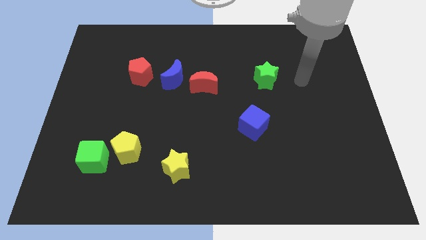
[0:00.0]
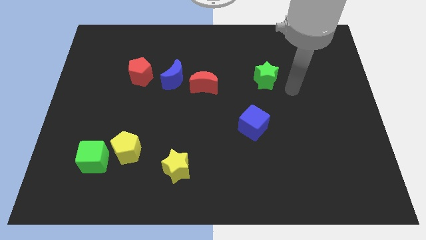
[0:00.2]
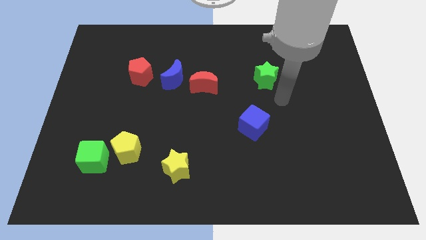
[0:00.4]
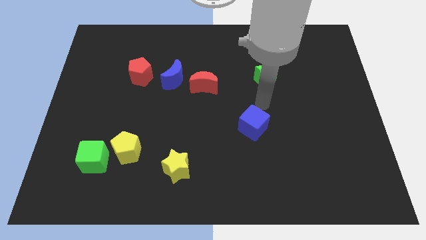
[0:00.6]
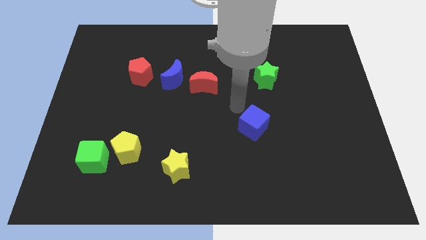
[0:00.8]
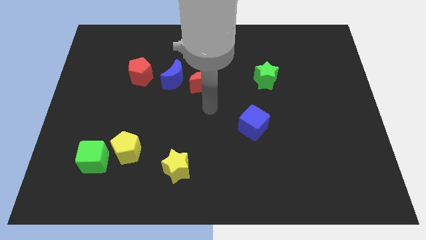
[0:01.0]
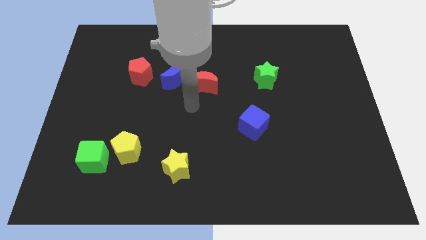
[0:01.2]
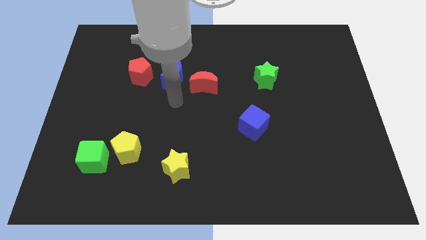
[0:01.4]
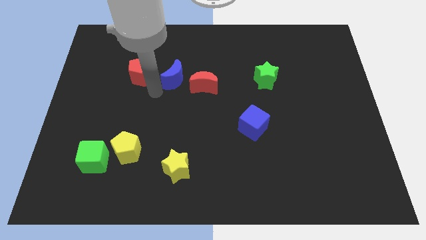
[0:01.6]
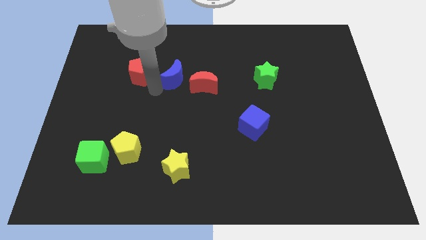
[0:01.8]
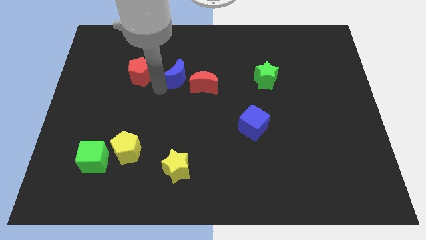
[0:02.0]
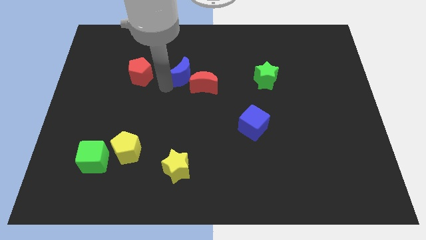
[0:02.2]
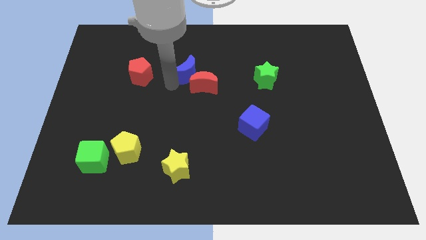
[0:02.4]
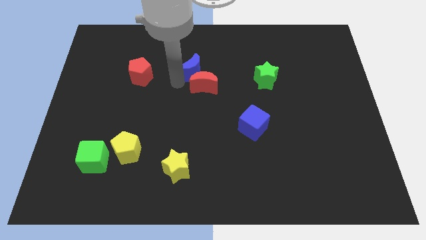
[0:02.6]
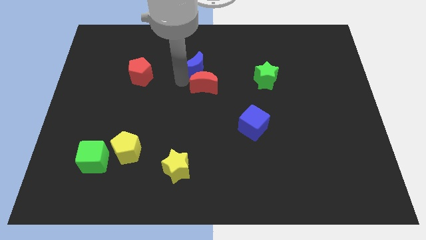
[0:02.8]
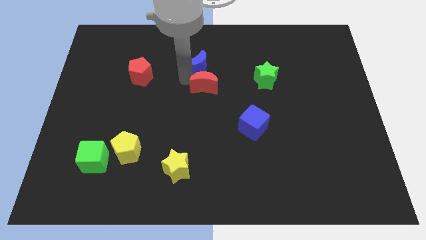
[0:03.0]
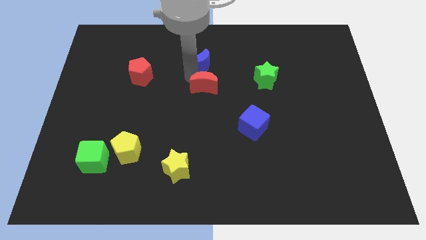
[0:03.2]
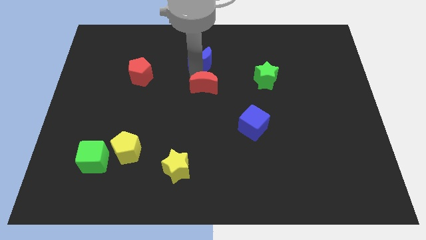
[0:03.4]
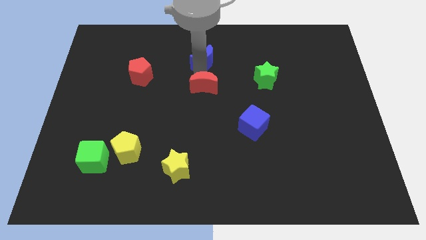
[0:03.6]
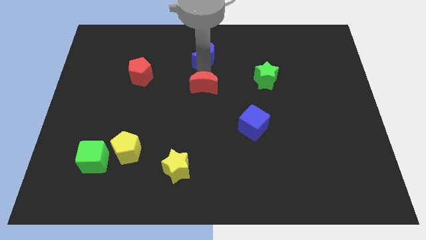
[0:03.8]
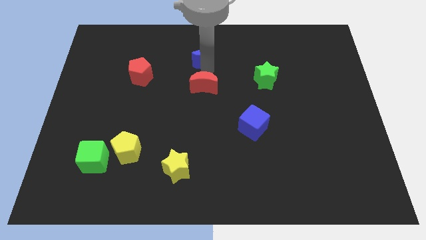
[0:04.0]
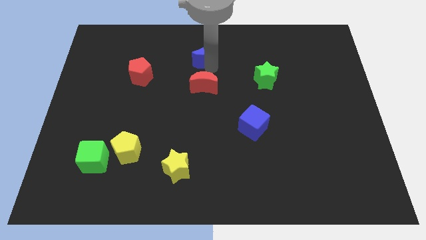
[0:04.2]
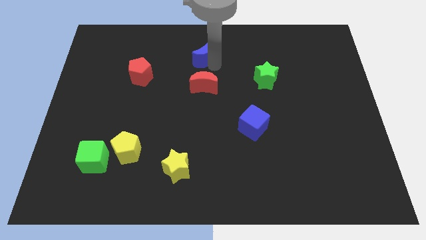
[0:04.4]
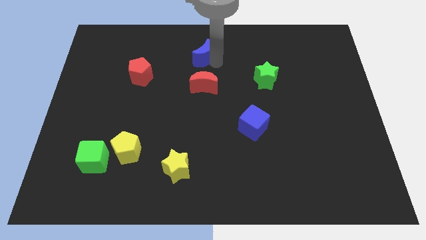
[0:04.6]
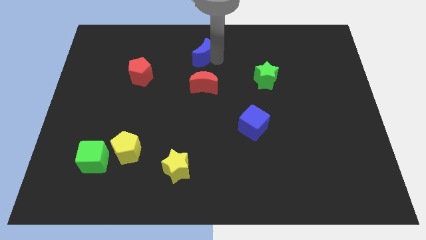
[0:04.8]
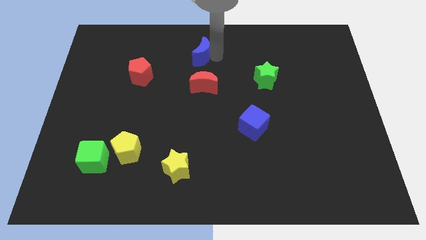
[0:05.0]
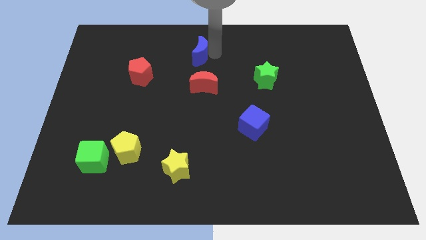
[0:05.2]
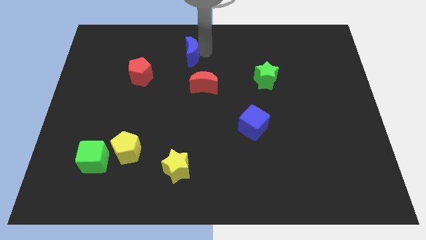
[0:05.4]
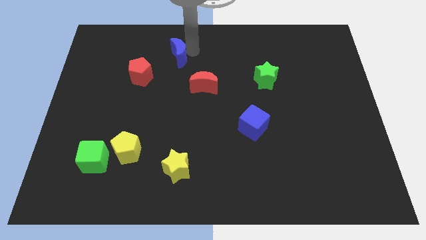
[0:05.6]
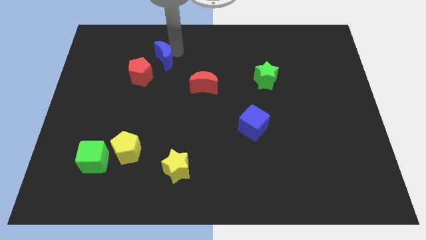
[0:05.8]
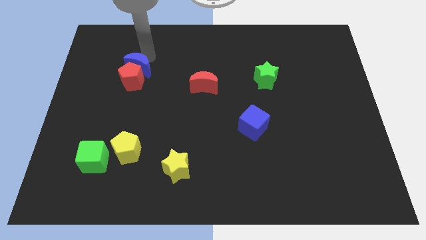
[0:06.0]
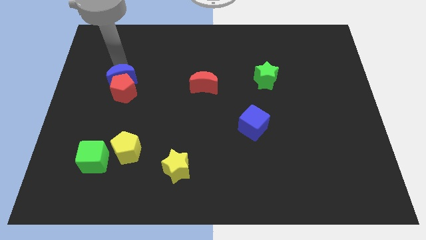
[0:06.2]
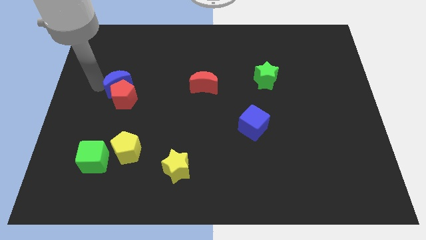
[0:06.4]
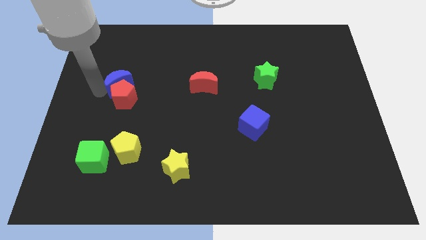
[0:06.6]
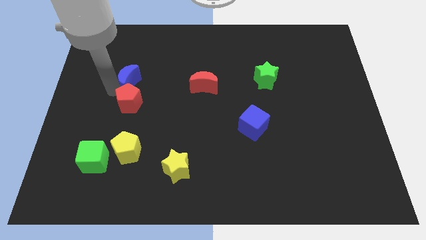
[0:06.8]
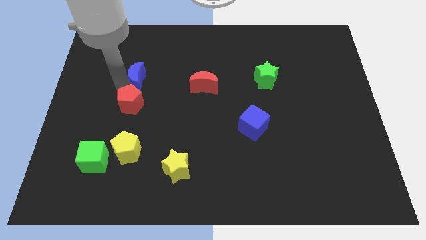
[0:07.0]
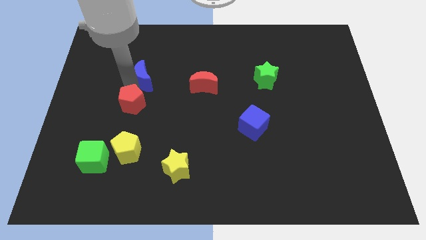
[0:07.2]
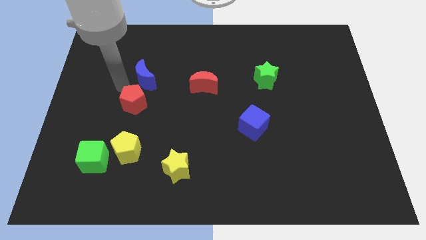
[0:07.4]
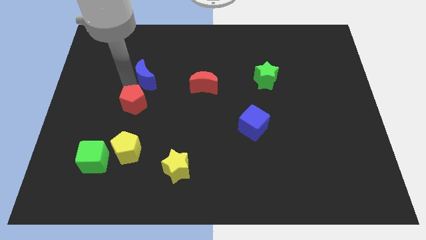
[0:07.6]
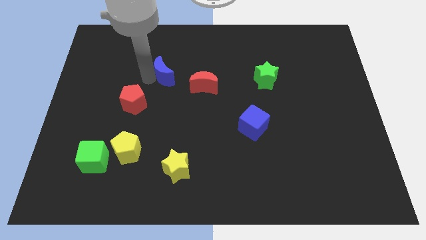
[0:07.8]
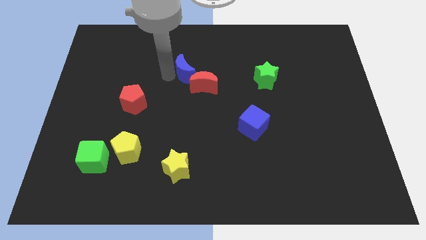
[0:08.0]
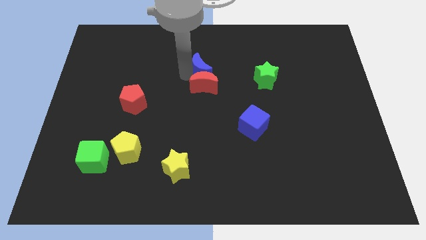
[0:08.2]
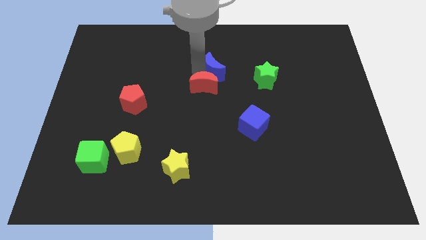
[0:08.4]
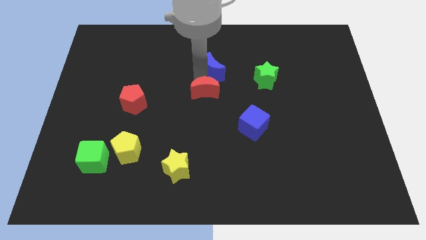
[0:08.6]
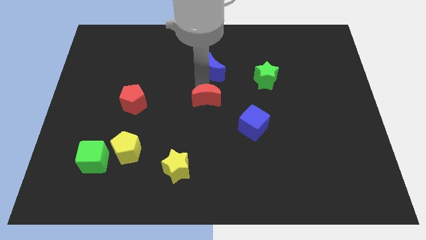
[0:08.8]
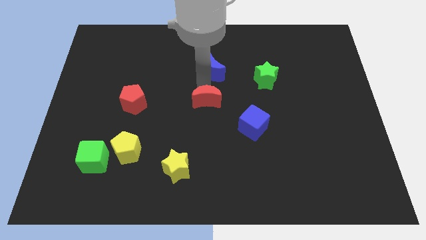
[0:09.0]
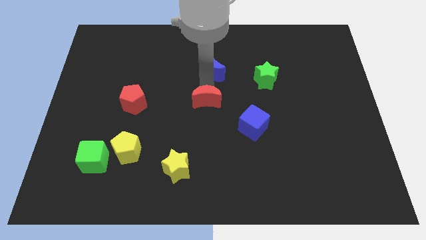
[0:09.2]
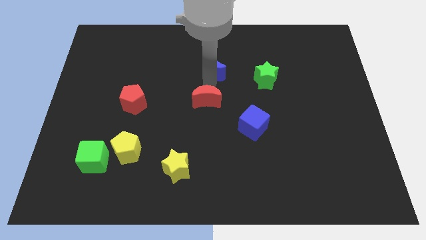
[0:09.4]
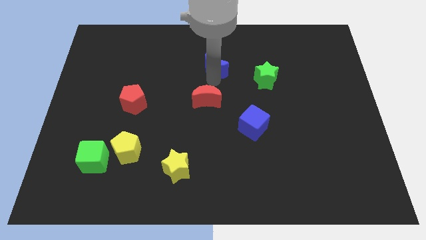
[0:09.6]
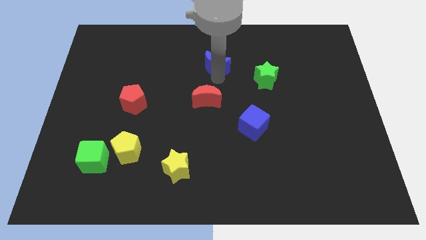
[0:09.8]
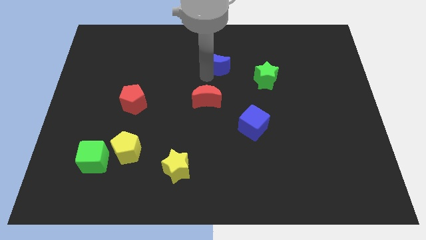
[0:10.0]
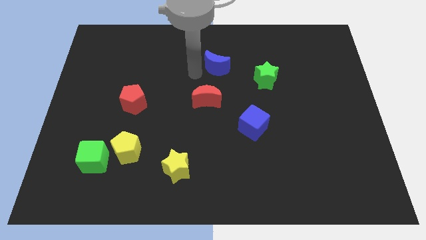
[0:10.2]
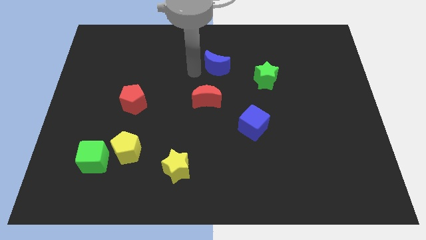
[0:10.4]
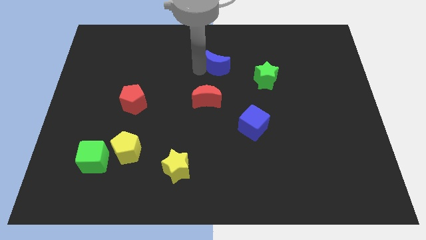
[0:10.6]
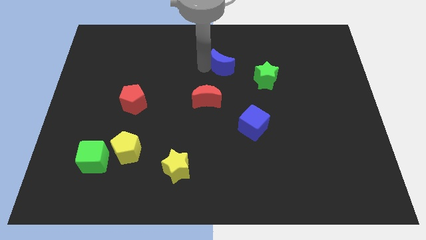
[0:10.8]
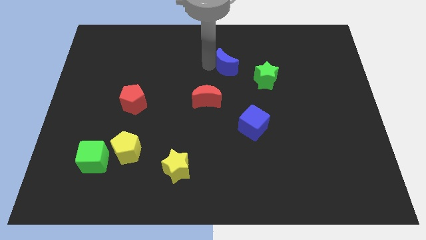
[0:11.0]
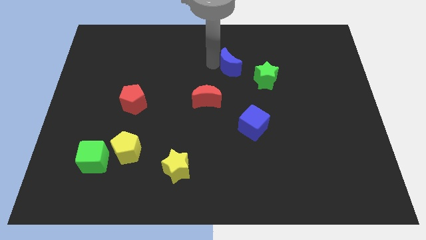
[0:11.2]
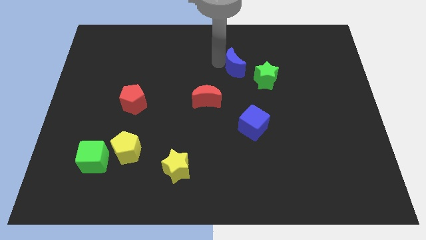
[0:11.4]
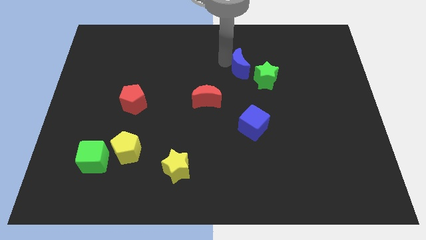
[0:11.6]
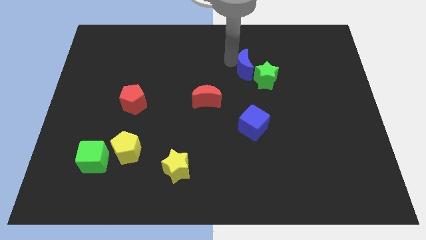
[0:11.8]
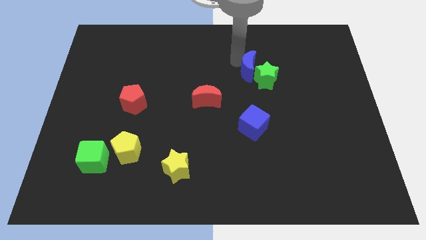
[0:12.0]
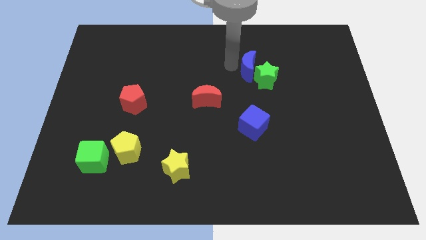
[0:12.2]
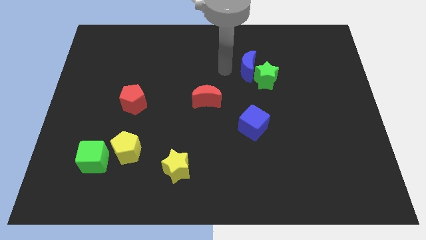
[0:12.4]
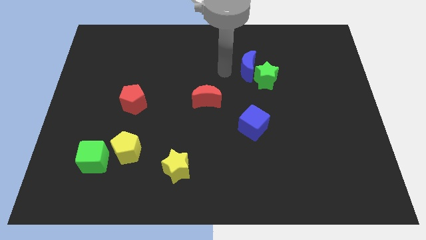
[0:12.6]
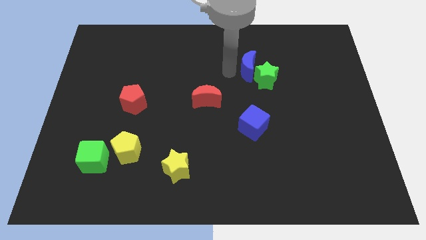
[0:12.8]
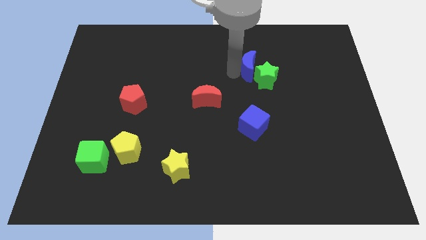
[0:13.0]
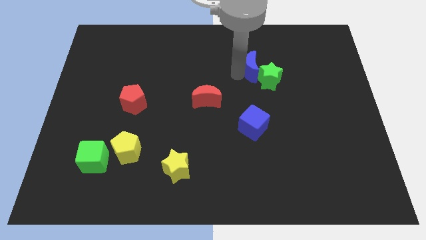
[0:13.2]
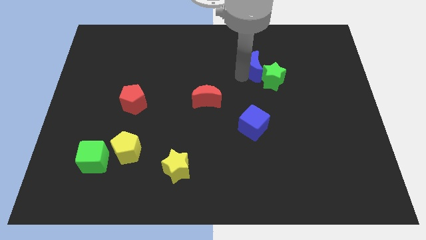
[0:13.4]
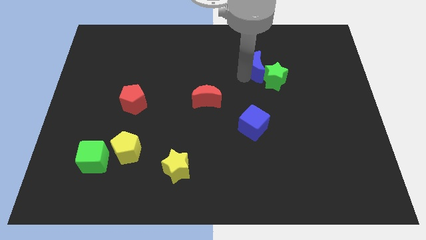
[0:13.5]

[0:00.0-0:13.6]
slide the blue moon right

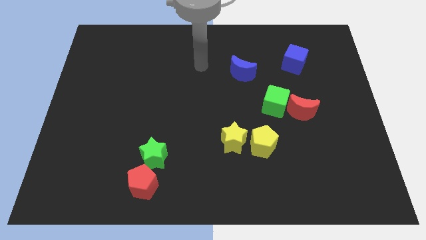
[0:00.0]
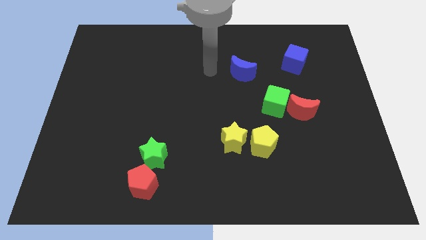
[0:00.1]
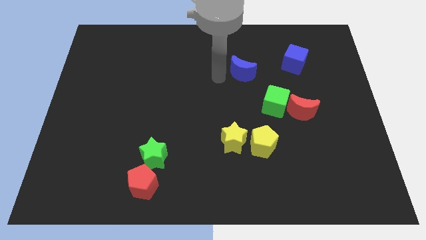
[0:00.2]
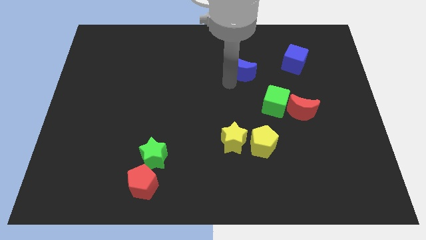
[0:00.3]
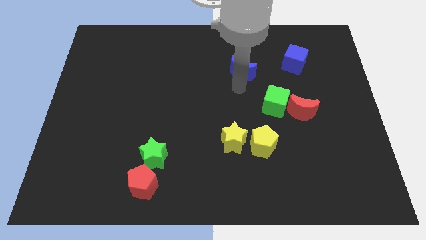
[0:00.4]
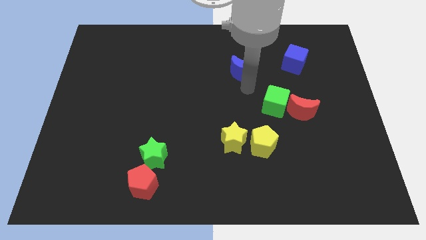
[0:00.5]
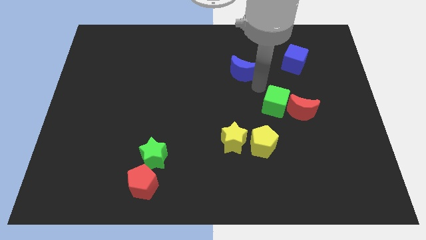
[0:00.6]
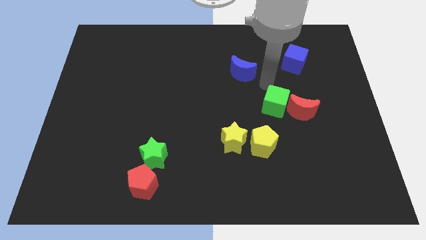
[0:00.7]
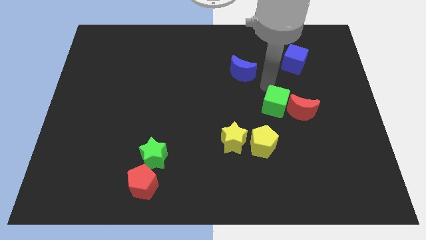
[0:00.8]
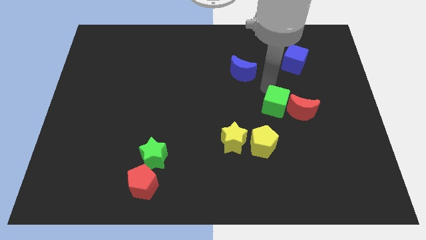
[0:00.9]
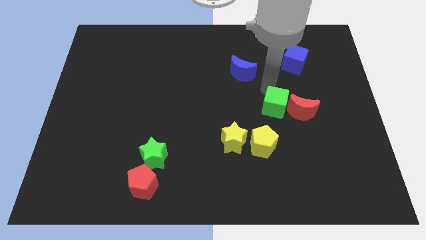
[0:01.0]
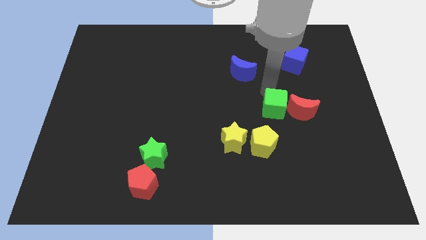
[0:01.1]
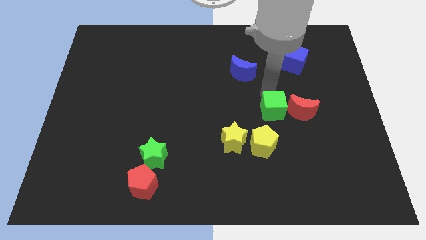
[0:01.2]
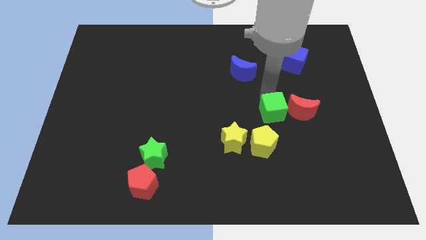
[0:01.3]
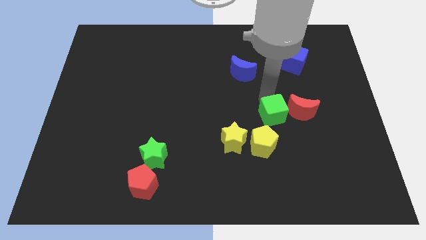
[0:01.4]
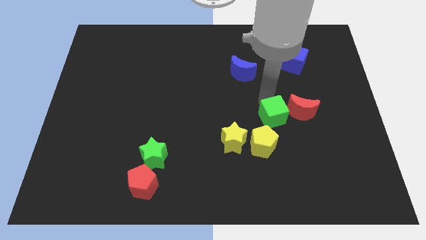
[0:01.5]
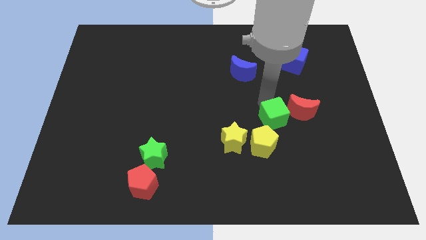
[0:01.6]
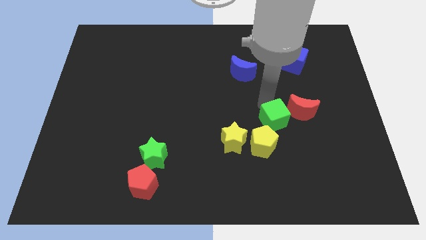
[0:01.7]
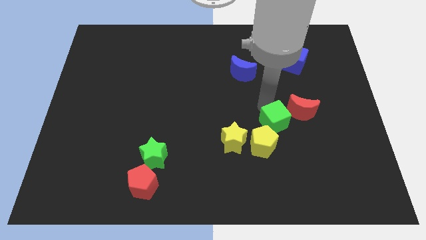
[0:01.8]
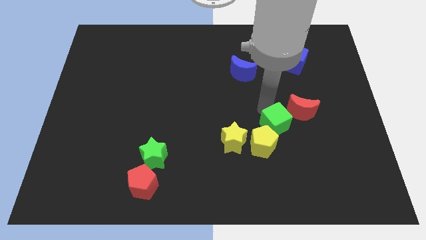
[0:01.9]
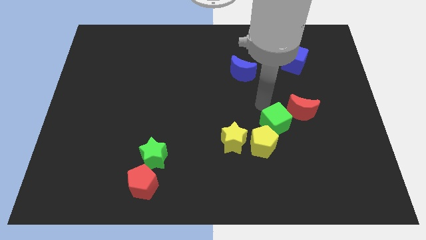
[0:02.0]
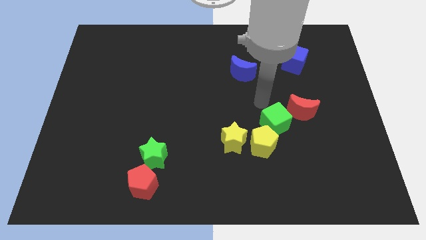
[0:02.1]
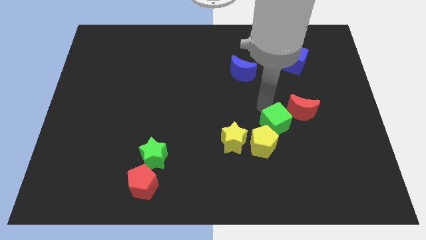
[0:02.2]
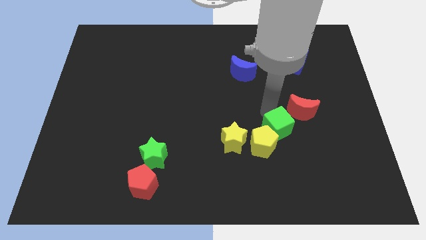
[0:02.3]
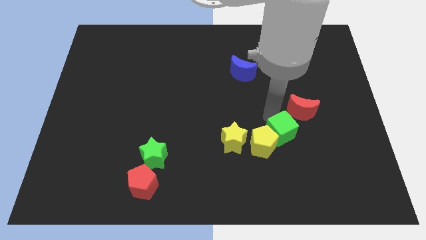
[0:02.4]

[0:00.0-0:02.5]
slightly move the green cube down
